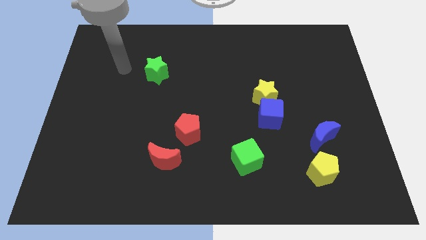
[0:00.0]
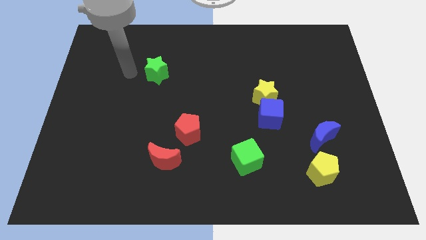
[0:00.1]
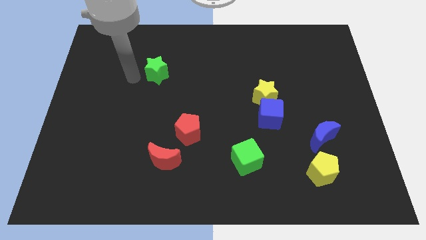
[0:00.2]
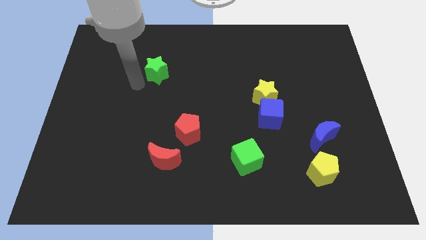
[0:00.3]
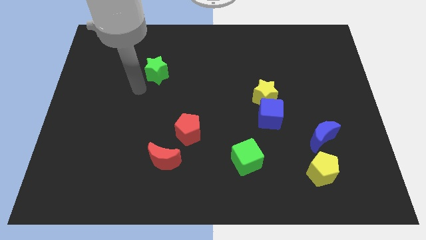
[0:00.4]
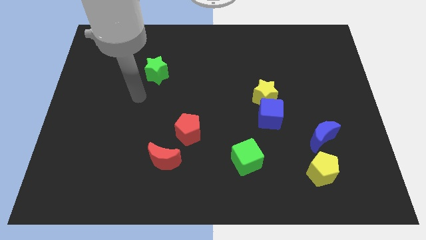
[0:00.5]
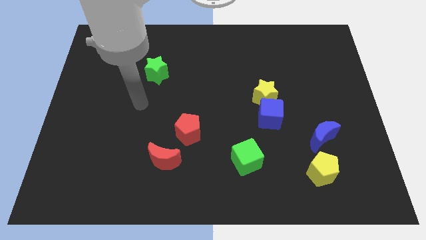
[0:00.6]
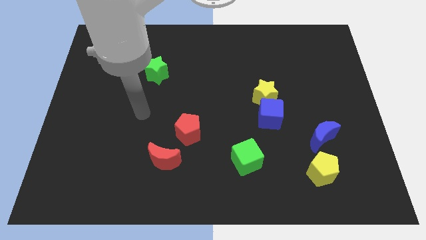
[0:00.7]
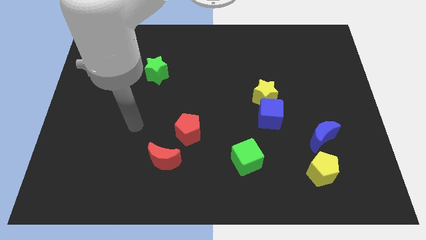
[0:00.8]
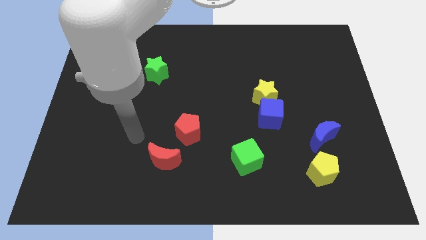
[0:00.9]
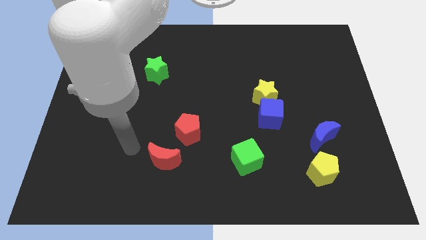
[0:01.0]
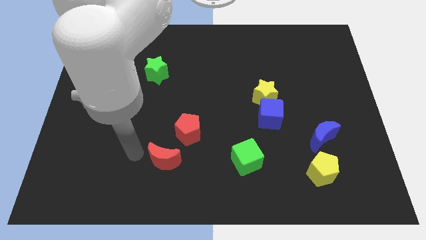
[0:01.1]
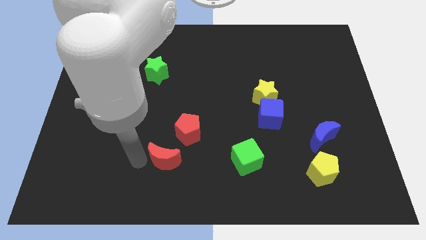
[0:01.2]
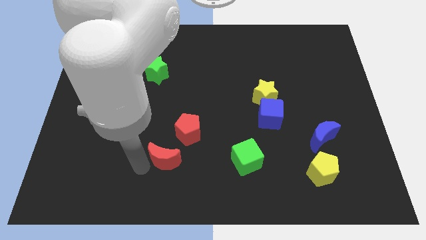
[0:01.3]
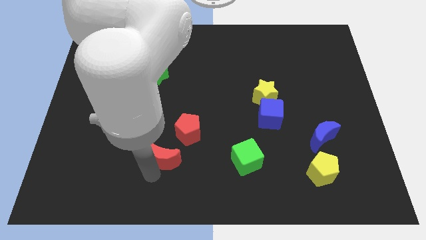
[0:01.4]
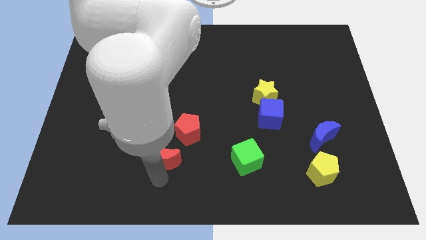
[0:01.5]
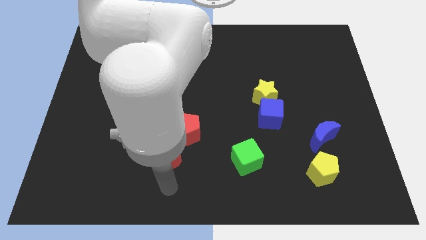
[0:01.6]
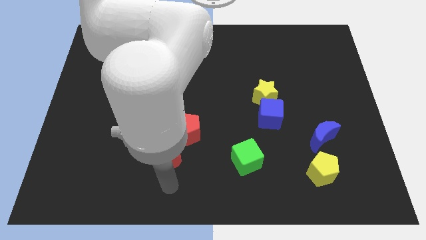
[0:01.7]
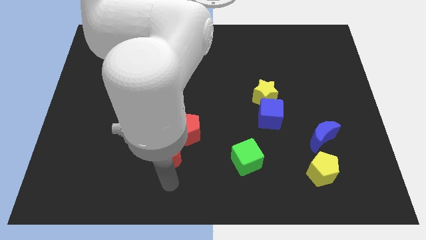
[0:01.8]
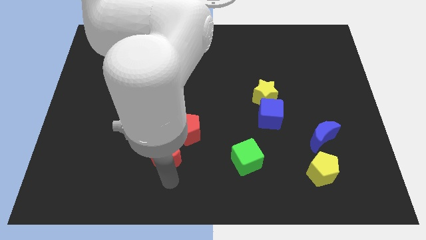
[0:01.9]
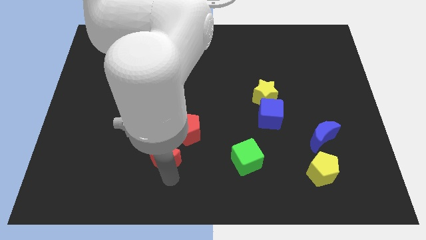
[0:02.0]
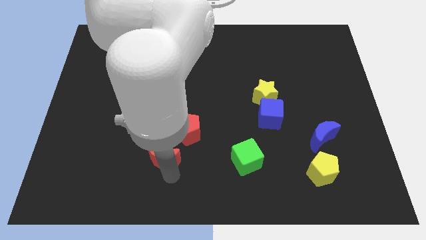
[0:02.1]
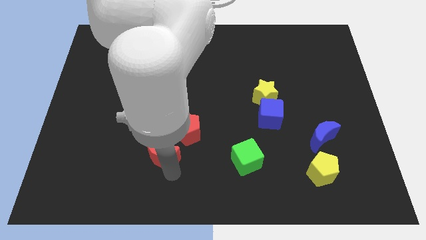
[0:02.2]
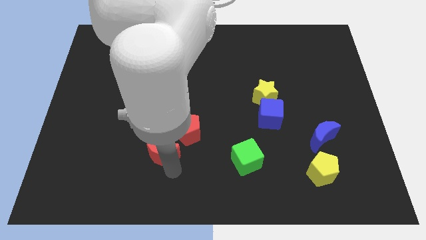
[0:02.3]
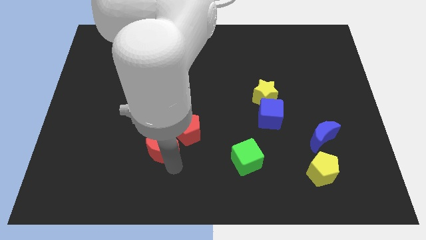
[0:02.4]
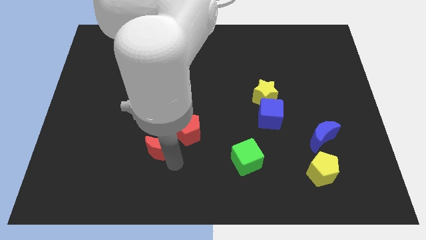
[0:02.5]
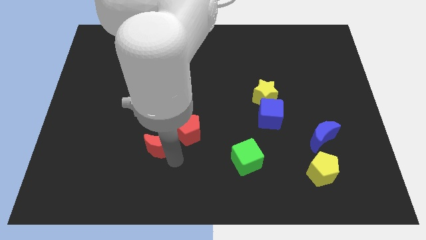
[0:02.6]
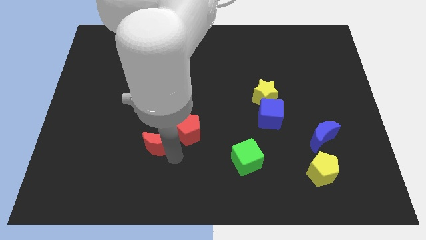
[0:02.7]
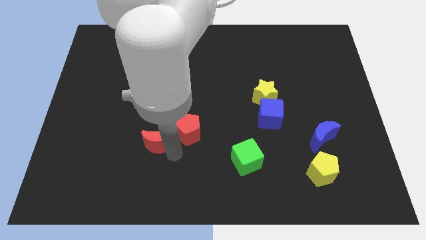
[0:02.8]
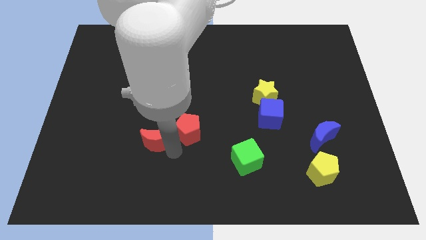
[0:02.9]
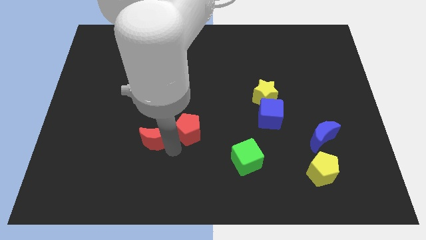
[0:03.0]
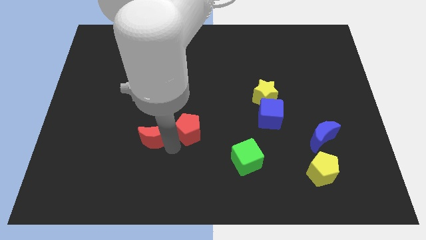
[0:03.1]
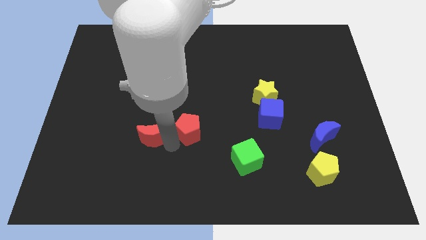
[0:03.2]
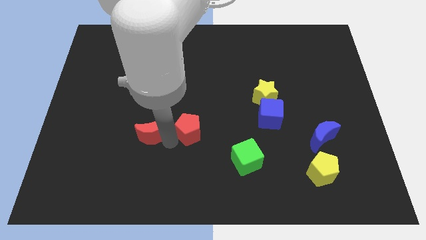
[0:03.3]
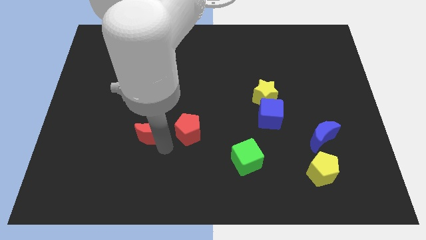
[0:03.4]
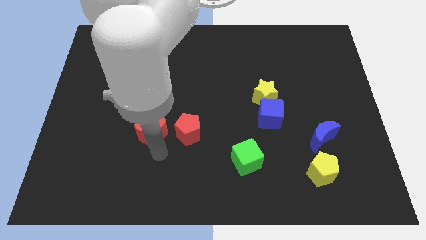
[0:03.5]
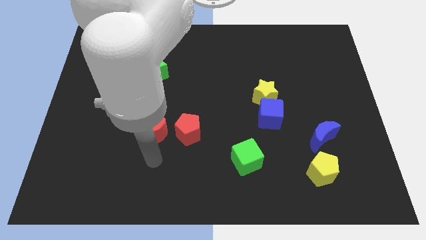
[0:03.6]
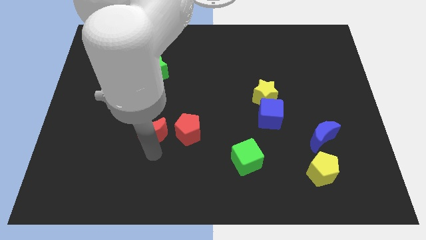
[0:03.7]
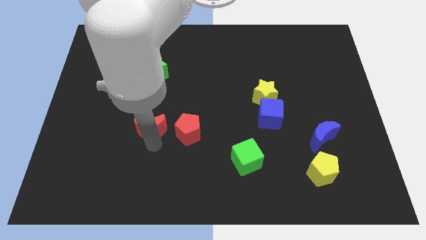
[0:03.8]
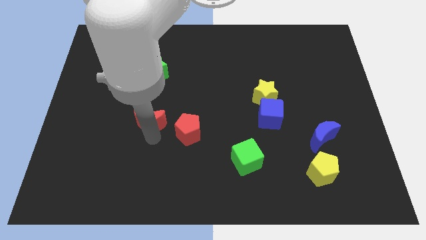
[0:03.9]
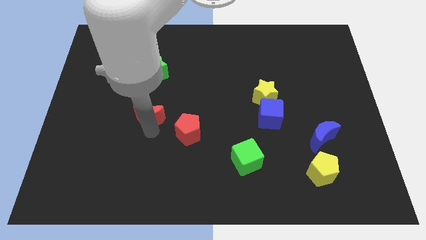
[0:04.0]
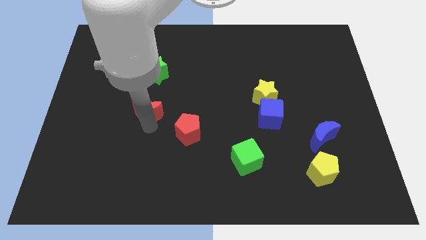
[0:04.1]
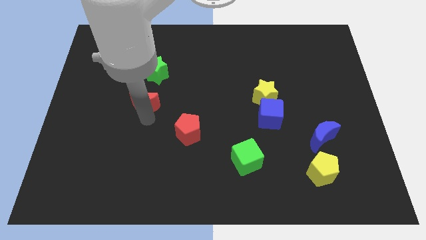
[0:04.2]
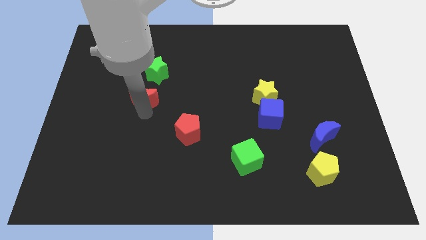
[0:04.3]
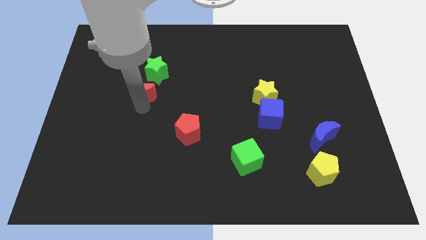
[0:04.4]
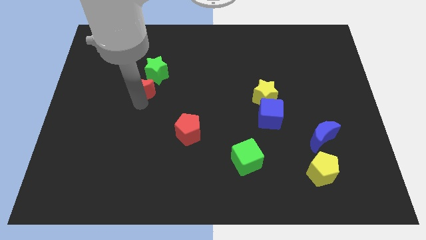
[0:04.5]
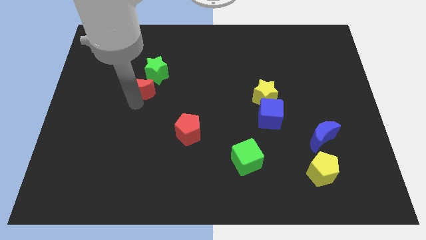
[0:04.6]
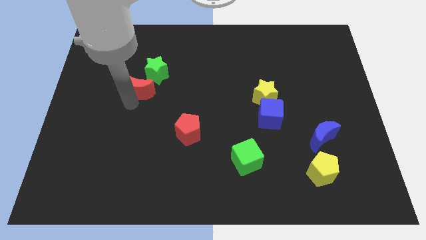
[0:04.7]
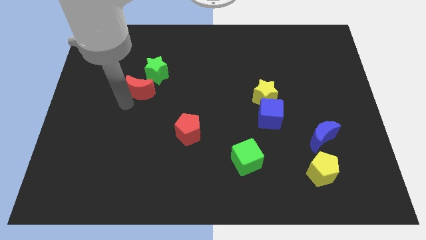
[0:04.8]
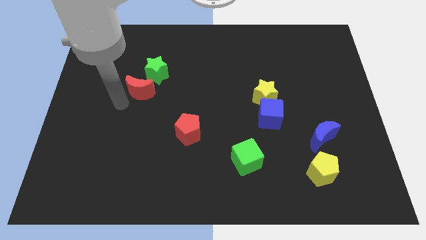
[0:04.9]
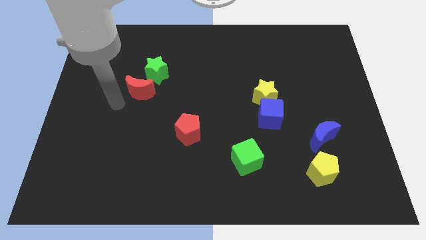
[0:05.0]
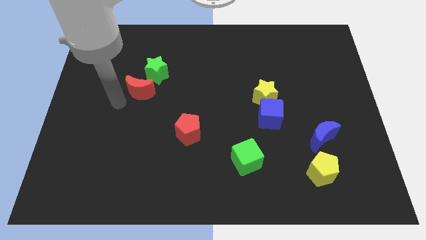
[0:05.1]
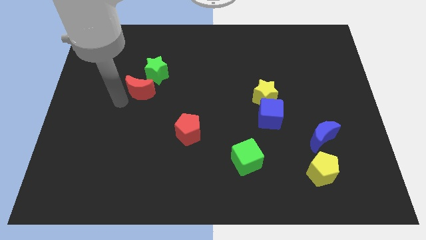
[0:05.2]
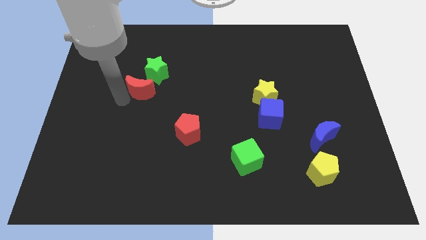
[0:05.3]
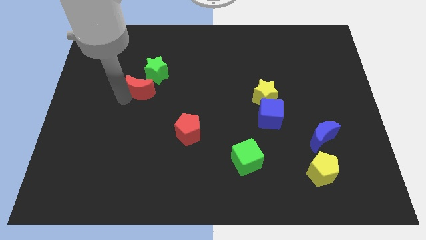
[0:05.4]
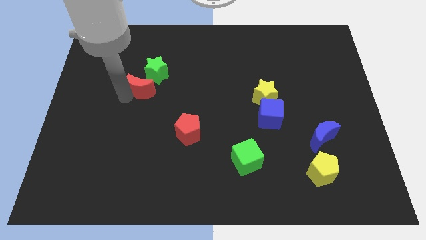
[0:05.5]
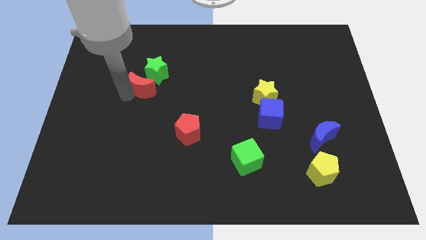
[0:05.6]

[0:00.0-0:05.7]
slide the red moon to the green star

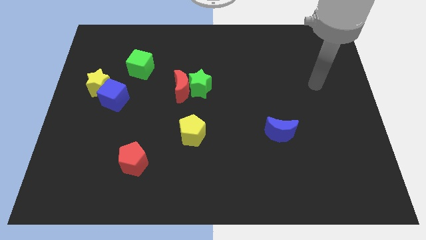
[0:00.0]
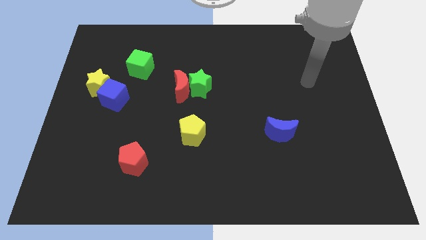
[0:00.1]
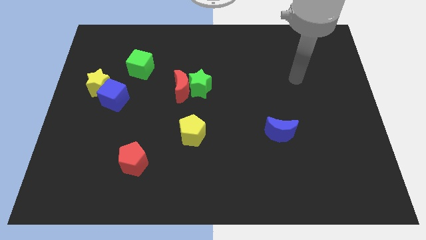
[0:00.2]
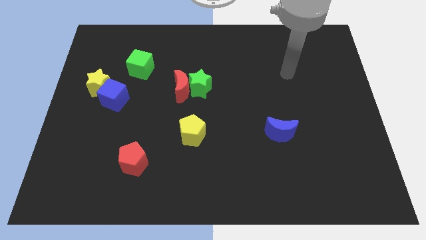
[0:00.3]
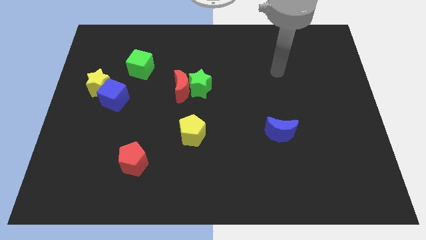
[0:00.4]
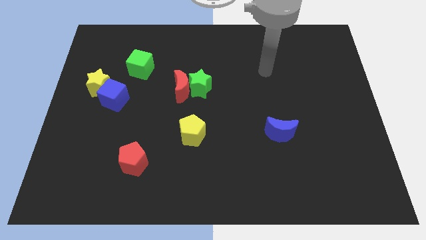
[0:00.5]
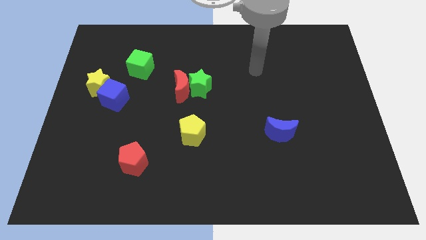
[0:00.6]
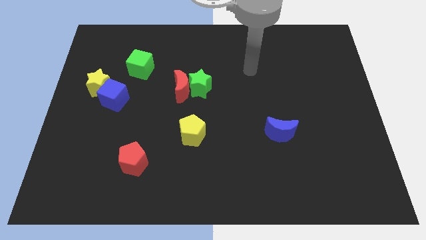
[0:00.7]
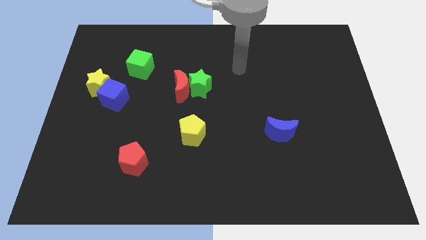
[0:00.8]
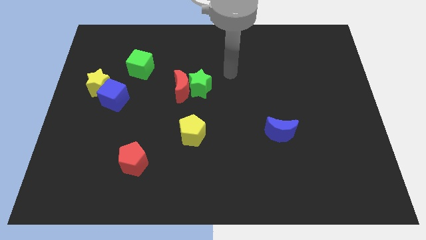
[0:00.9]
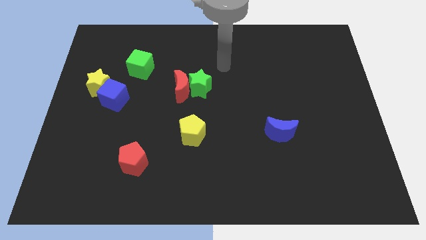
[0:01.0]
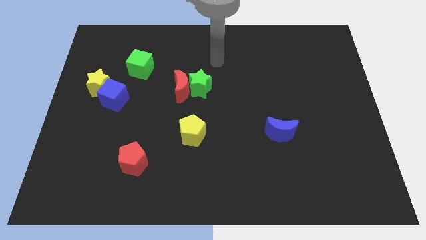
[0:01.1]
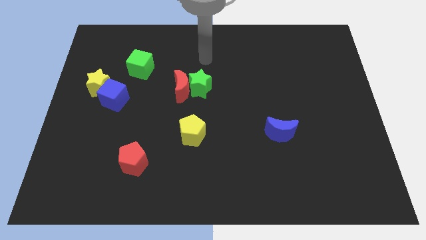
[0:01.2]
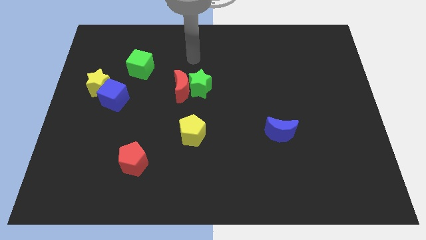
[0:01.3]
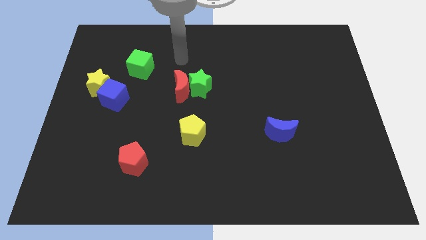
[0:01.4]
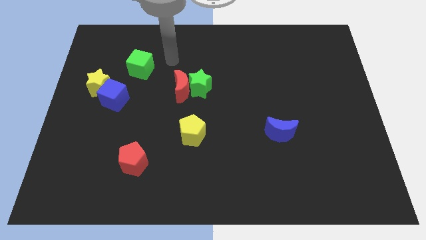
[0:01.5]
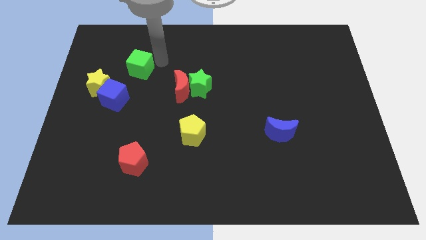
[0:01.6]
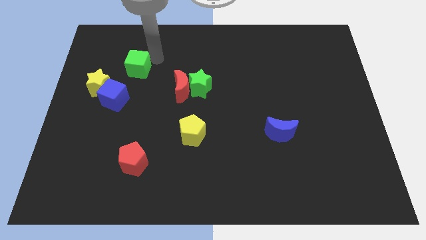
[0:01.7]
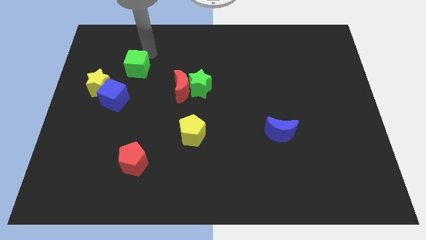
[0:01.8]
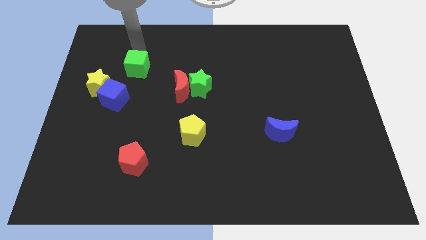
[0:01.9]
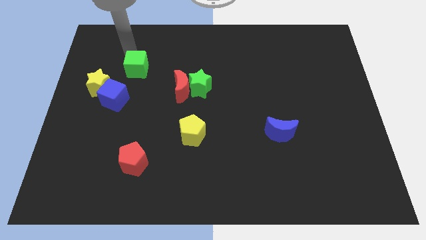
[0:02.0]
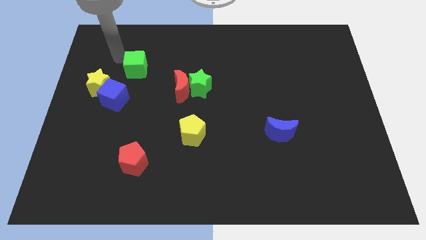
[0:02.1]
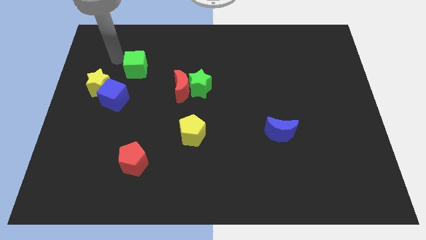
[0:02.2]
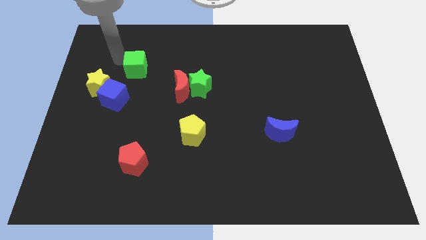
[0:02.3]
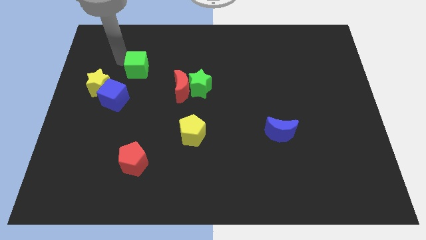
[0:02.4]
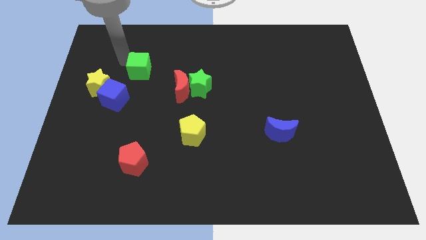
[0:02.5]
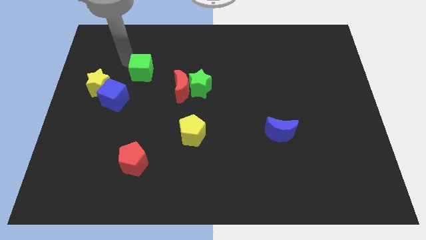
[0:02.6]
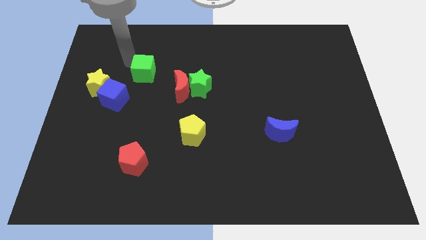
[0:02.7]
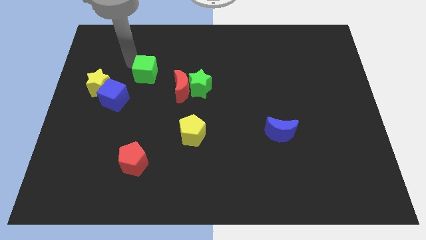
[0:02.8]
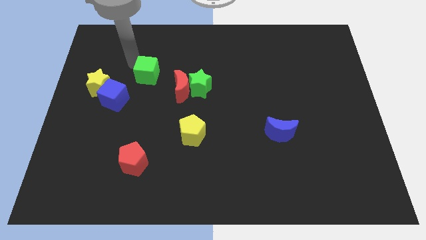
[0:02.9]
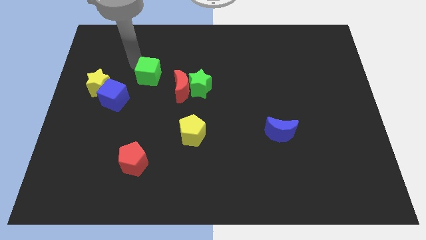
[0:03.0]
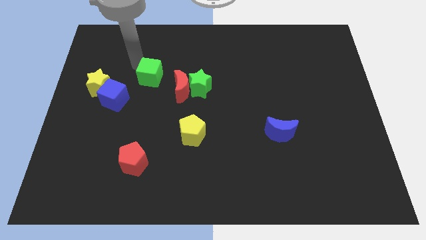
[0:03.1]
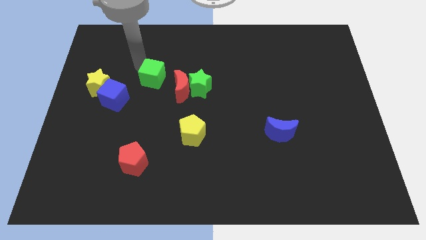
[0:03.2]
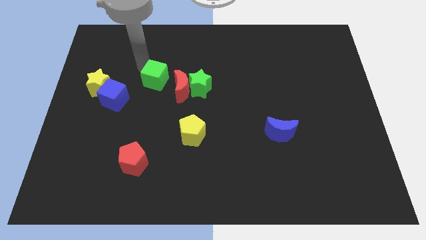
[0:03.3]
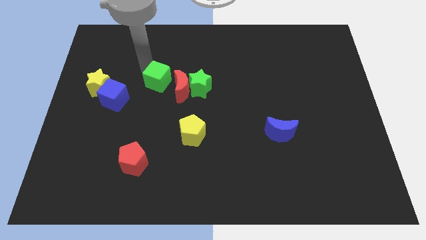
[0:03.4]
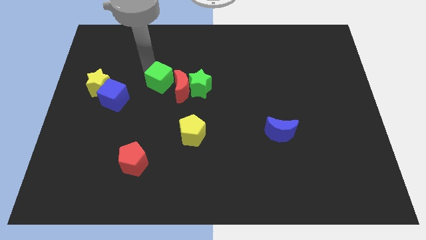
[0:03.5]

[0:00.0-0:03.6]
slide the green cube next to the red moon
